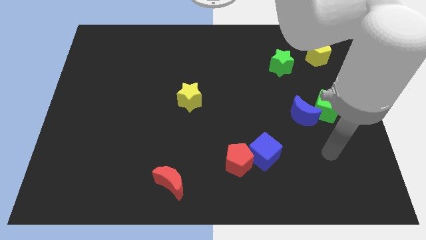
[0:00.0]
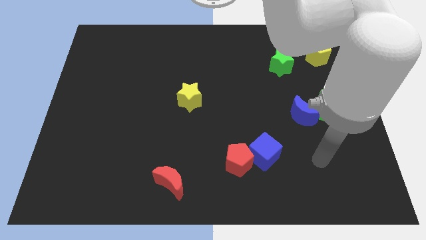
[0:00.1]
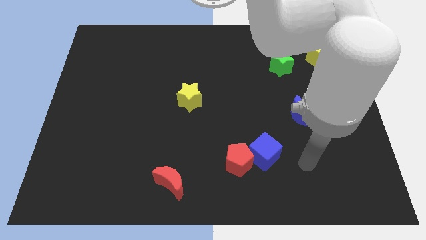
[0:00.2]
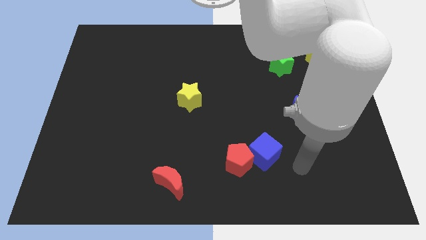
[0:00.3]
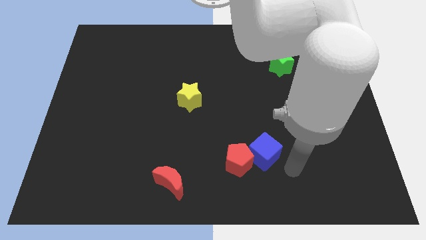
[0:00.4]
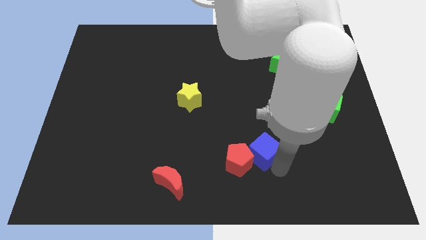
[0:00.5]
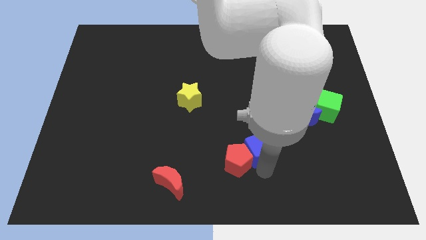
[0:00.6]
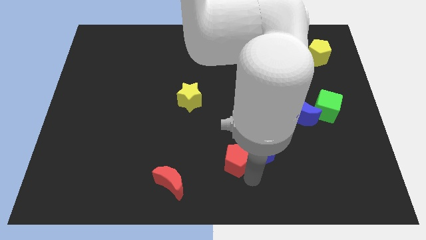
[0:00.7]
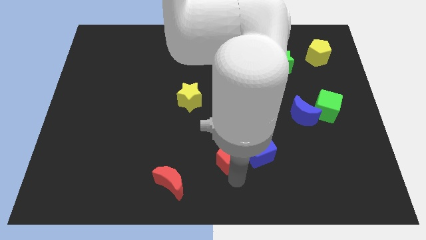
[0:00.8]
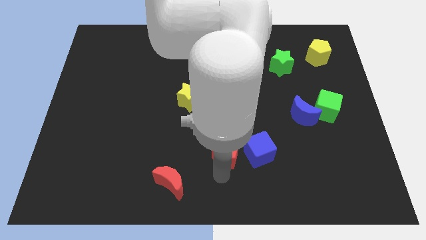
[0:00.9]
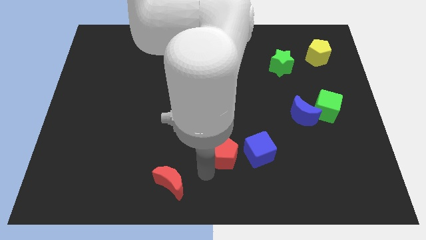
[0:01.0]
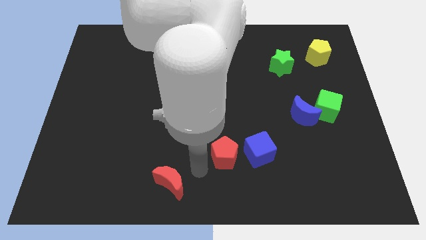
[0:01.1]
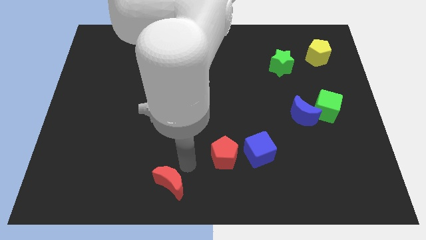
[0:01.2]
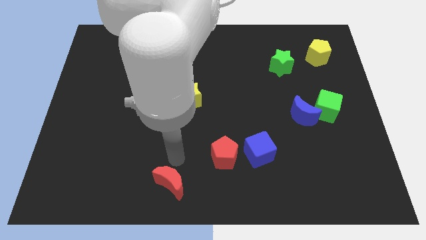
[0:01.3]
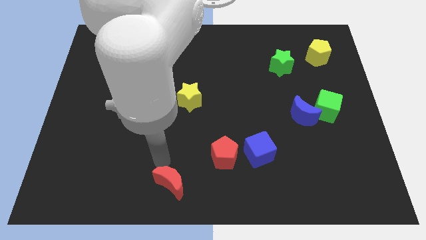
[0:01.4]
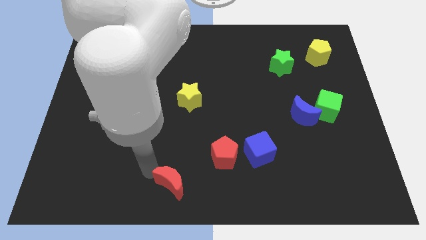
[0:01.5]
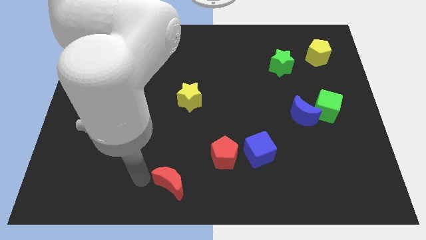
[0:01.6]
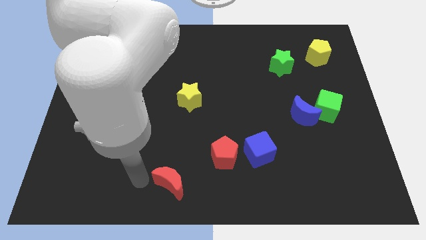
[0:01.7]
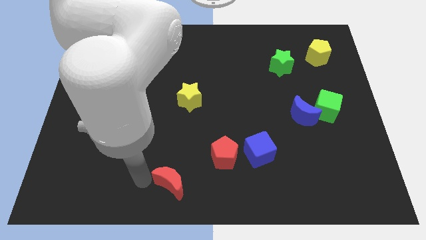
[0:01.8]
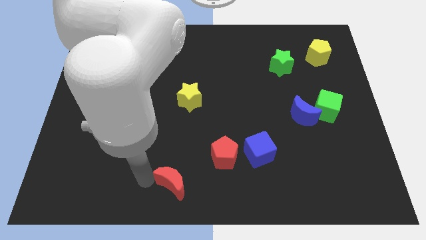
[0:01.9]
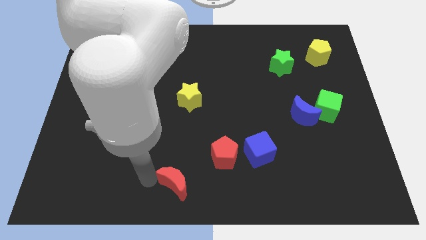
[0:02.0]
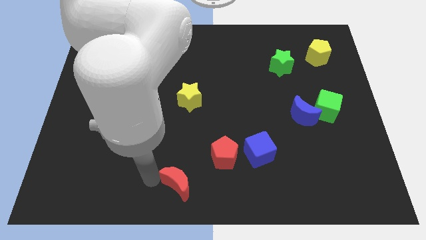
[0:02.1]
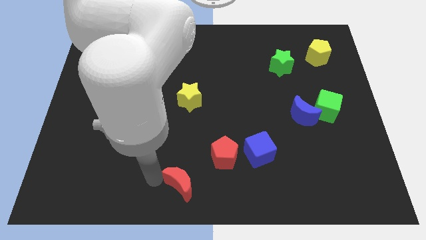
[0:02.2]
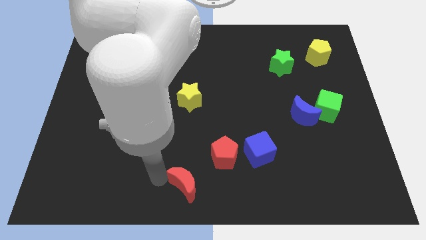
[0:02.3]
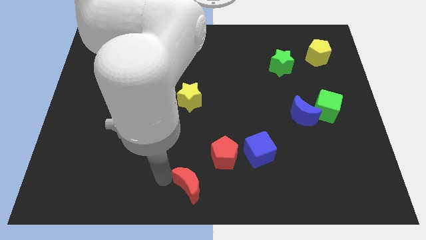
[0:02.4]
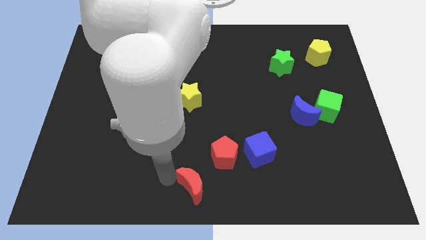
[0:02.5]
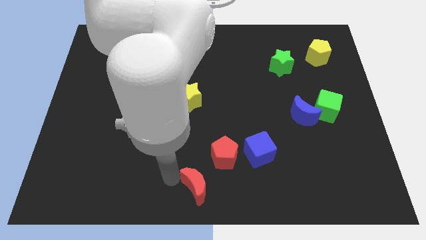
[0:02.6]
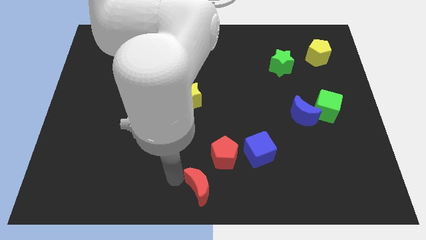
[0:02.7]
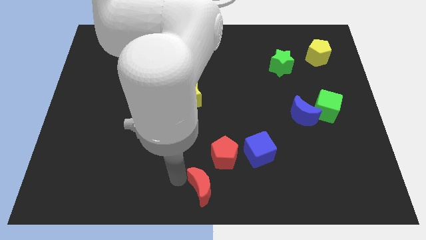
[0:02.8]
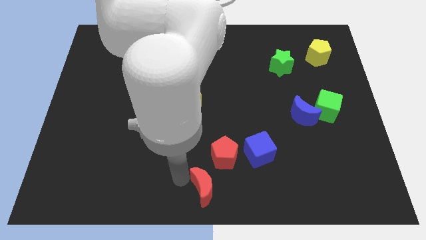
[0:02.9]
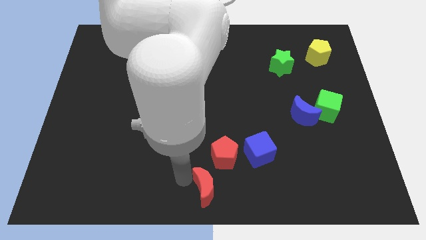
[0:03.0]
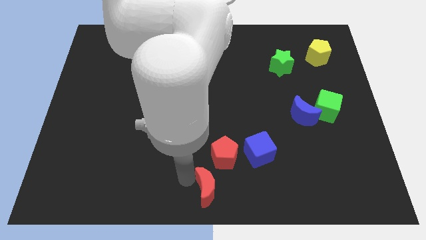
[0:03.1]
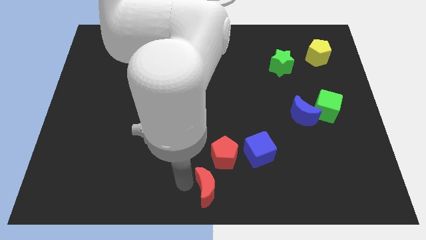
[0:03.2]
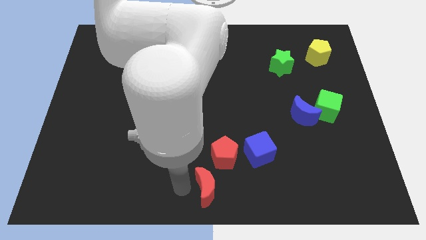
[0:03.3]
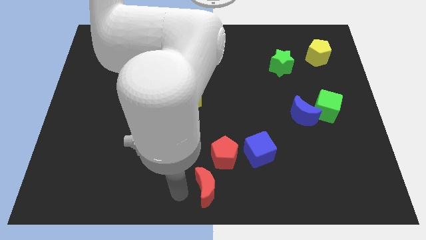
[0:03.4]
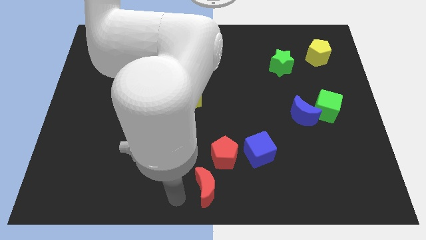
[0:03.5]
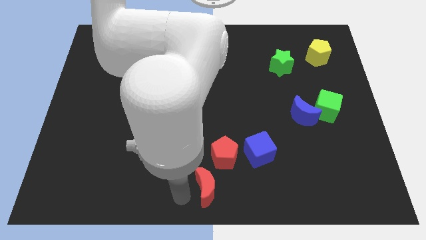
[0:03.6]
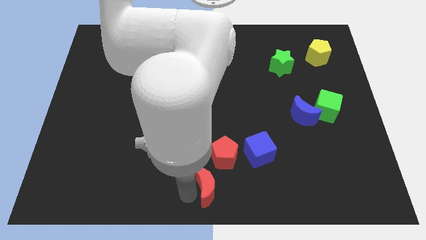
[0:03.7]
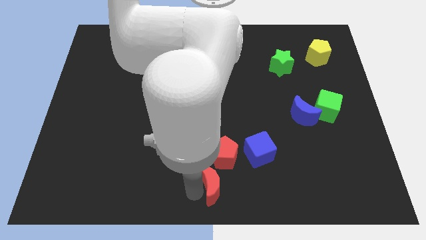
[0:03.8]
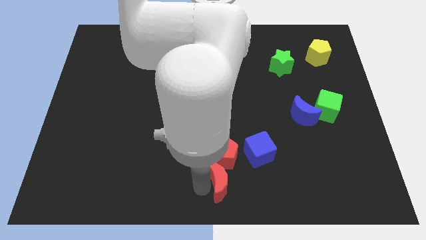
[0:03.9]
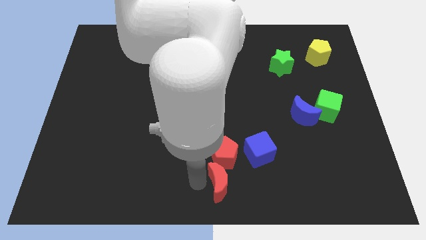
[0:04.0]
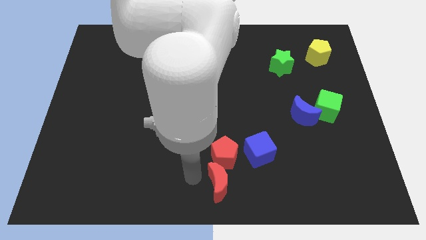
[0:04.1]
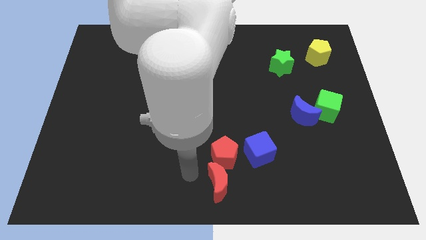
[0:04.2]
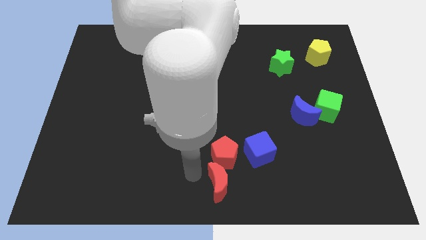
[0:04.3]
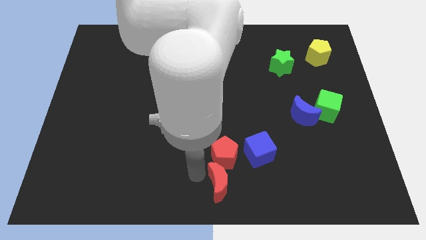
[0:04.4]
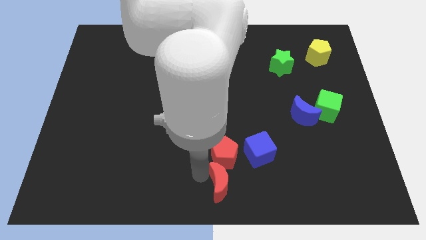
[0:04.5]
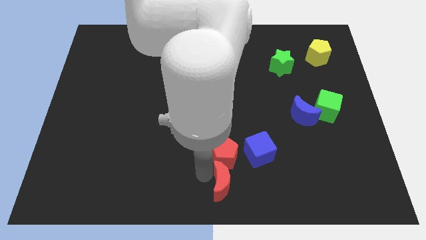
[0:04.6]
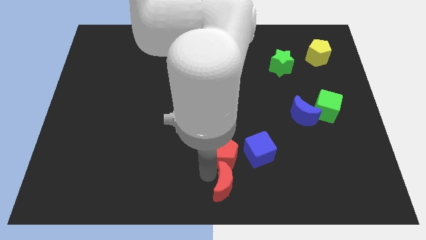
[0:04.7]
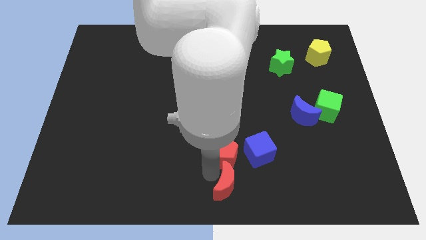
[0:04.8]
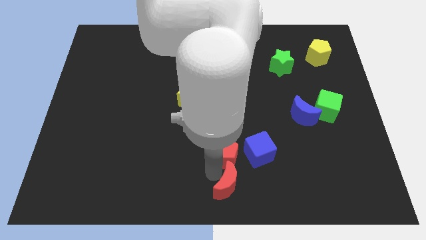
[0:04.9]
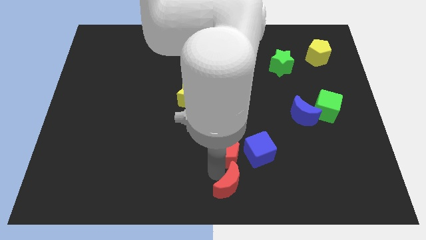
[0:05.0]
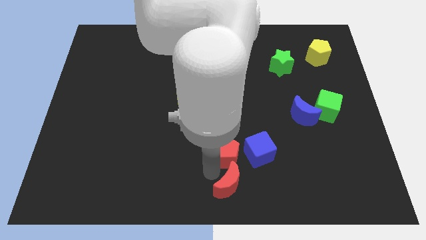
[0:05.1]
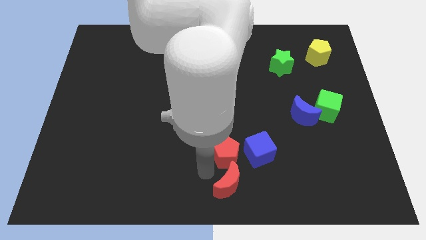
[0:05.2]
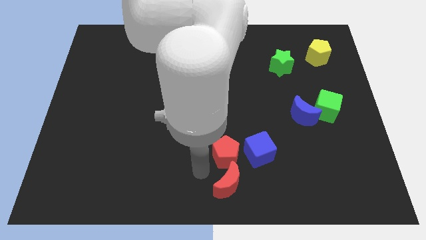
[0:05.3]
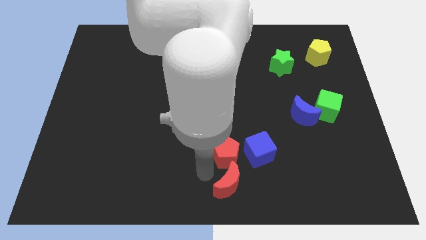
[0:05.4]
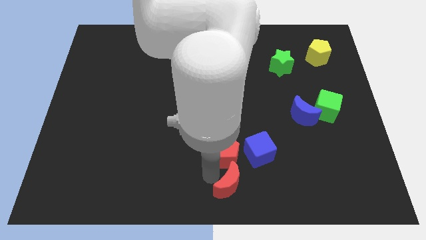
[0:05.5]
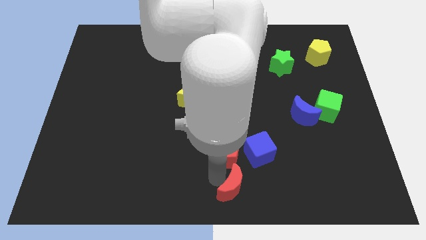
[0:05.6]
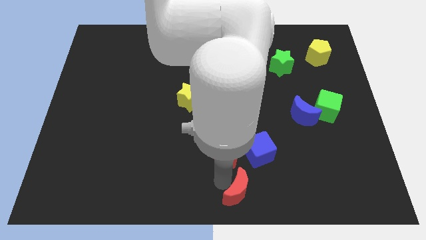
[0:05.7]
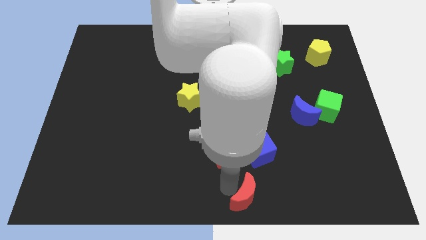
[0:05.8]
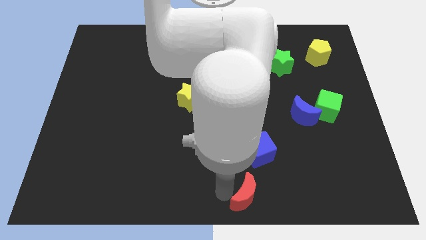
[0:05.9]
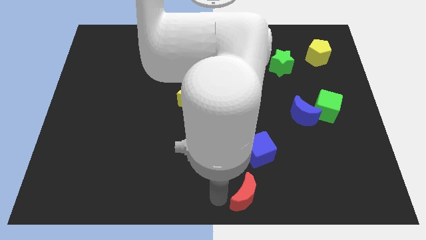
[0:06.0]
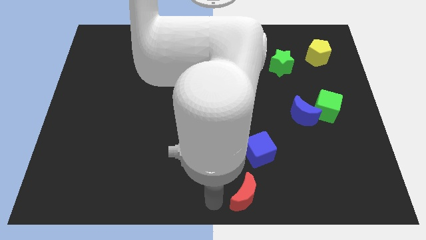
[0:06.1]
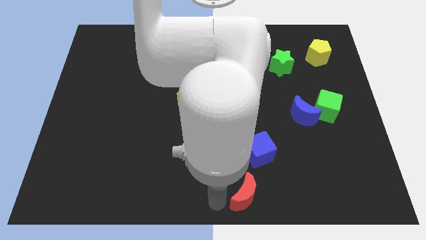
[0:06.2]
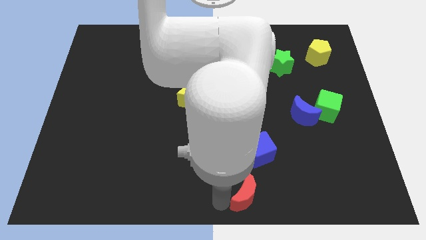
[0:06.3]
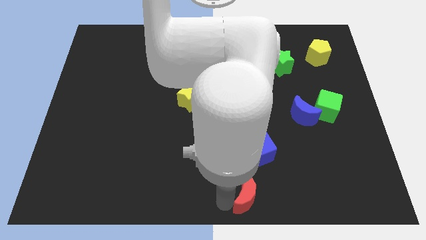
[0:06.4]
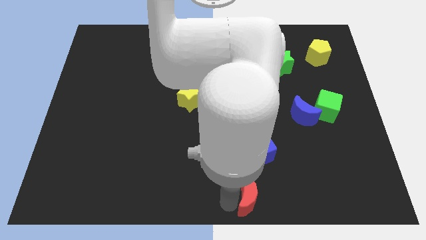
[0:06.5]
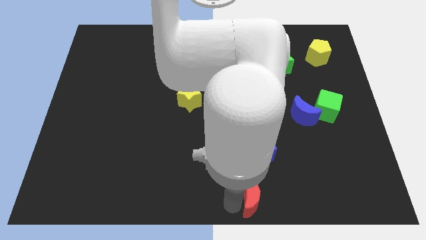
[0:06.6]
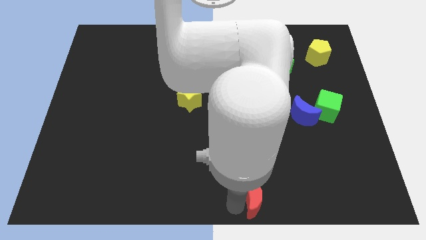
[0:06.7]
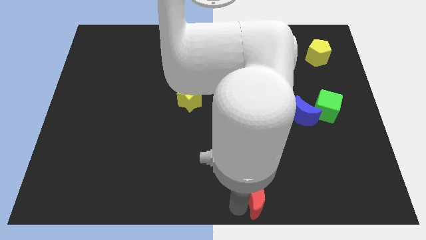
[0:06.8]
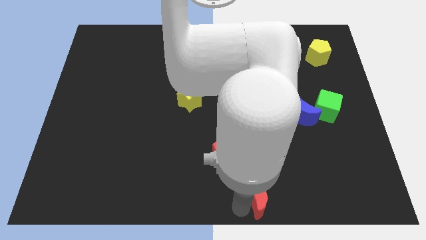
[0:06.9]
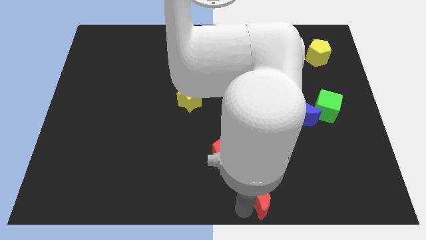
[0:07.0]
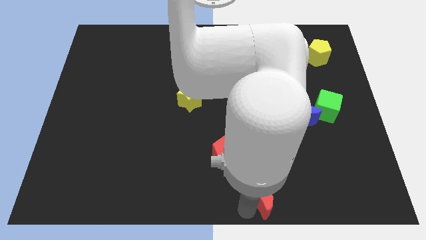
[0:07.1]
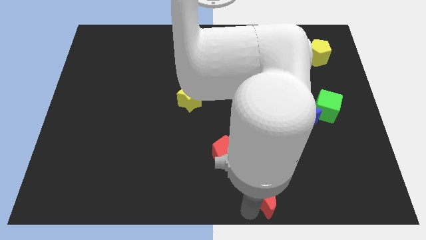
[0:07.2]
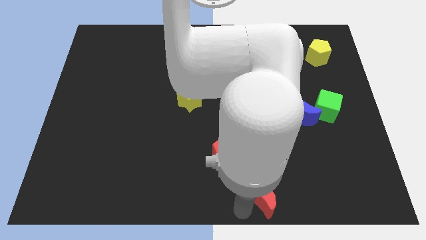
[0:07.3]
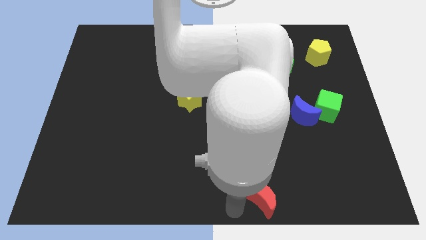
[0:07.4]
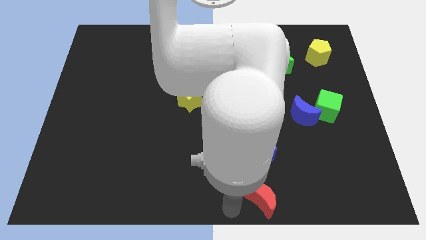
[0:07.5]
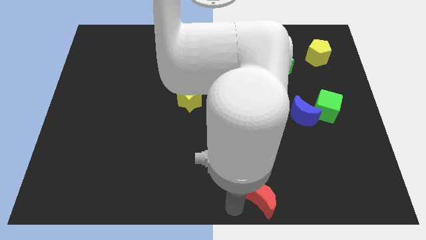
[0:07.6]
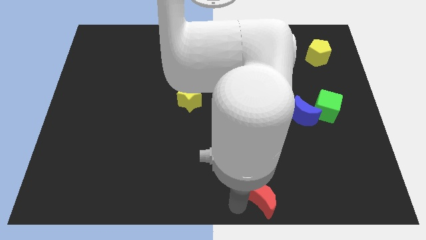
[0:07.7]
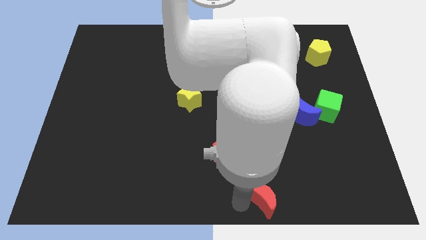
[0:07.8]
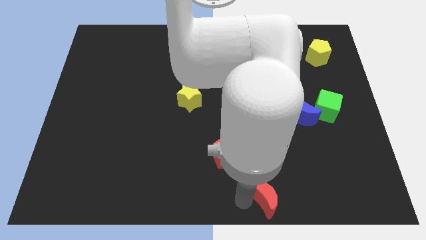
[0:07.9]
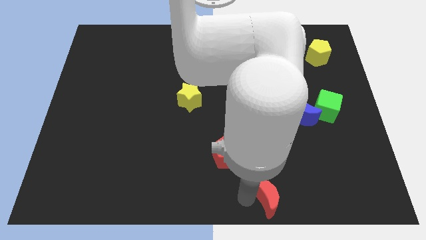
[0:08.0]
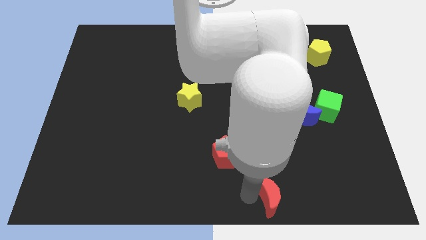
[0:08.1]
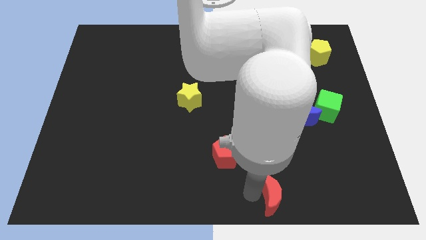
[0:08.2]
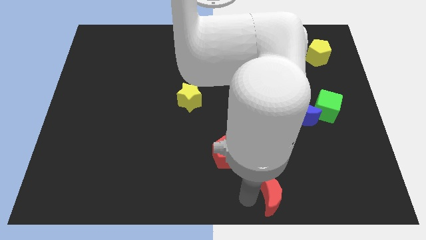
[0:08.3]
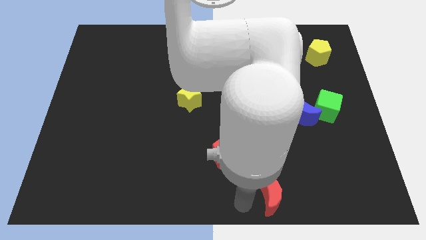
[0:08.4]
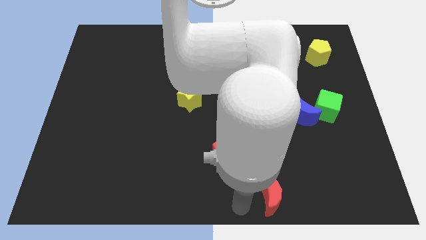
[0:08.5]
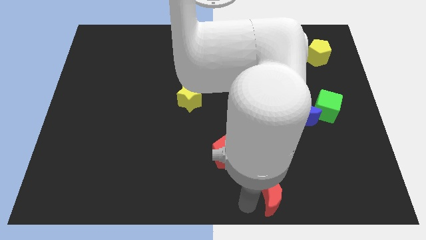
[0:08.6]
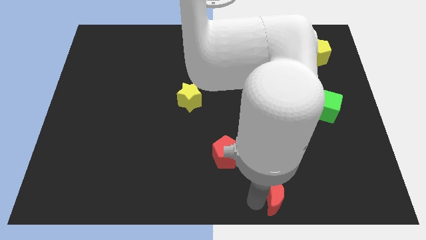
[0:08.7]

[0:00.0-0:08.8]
move the red moon right
